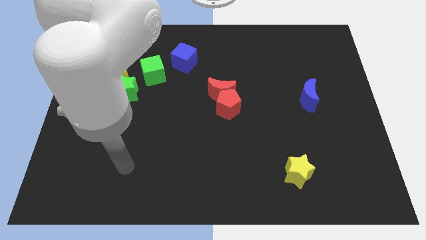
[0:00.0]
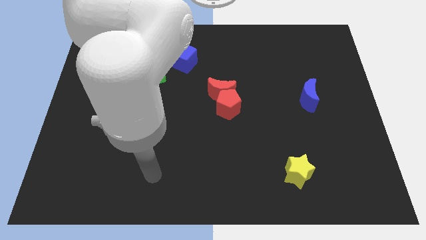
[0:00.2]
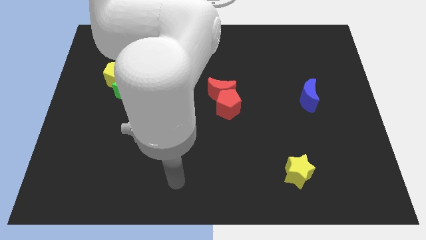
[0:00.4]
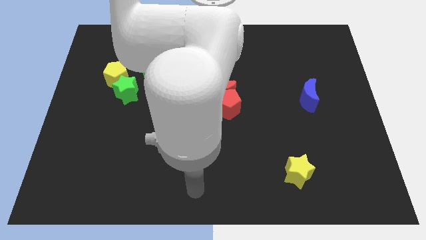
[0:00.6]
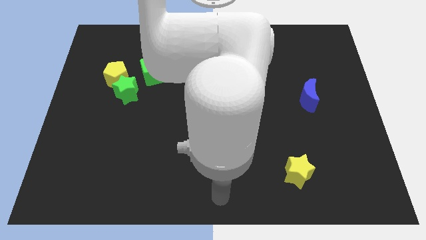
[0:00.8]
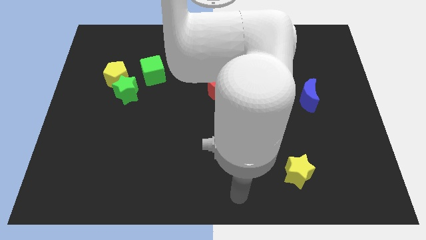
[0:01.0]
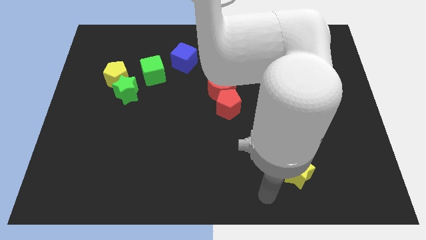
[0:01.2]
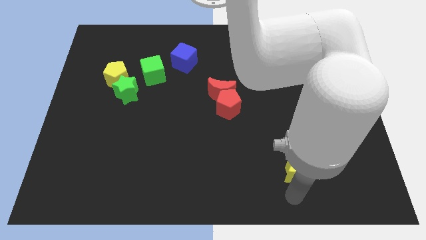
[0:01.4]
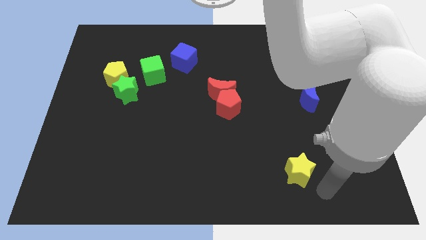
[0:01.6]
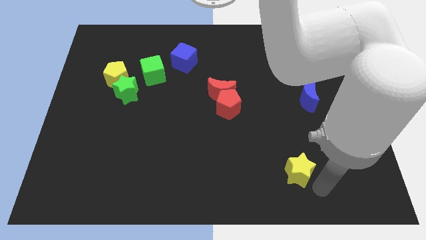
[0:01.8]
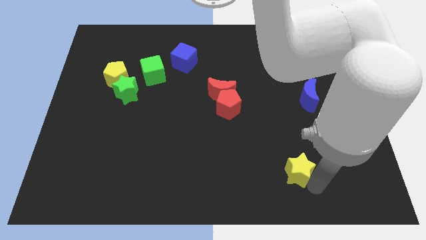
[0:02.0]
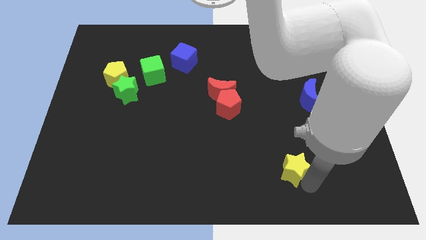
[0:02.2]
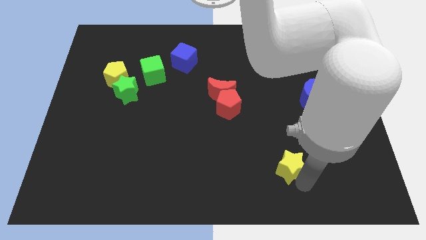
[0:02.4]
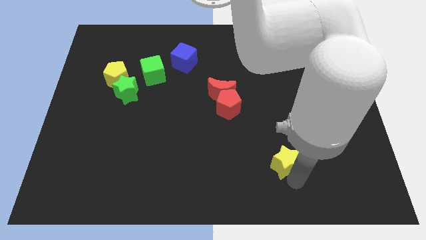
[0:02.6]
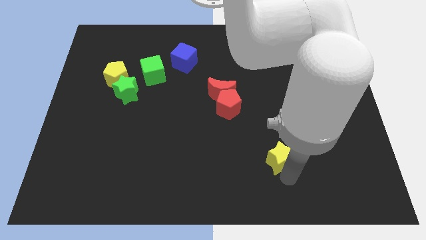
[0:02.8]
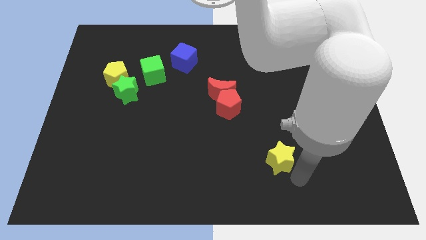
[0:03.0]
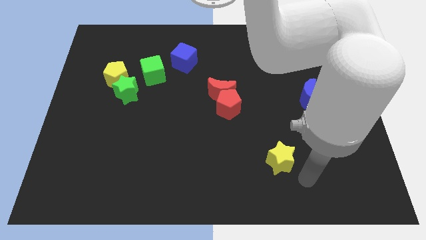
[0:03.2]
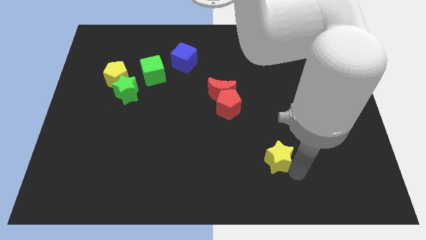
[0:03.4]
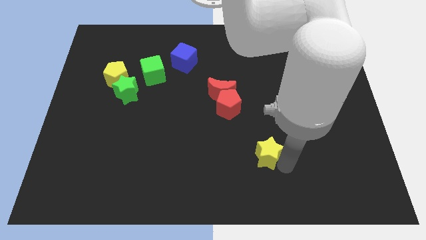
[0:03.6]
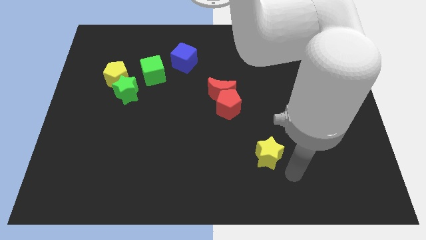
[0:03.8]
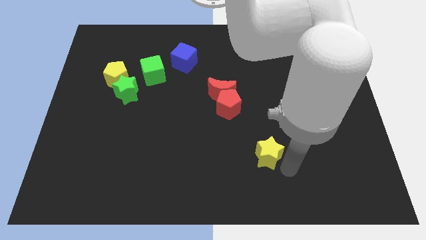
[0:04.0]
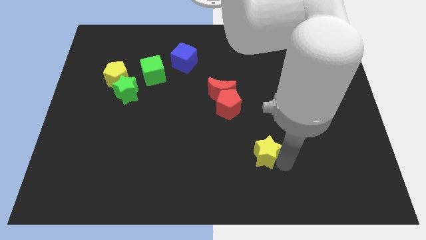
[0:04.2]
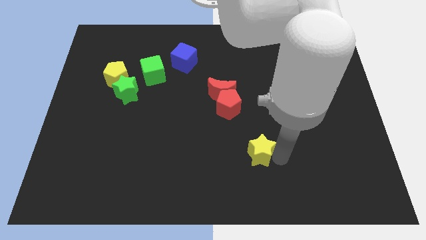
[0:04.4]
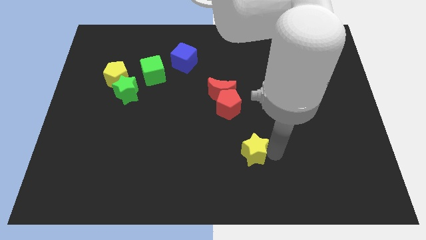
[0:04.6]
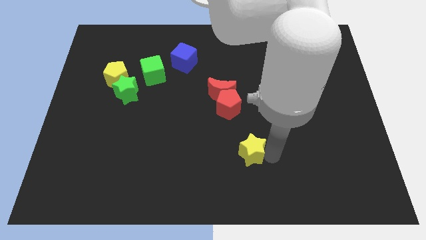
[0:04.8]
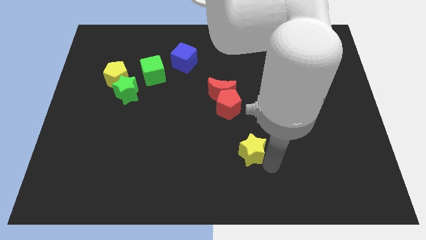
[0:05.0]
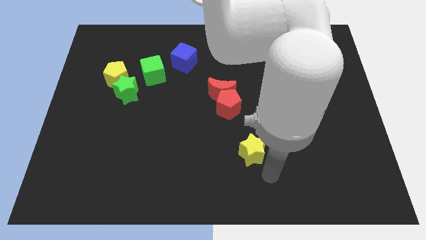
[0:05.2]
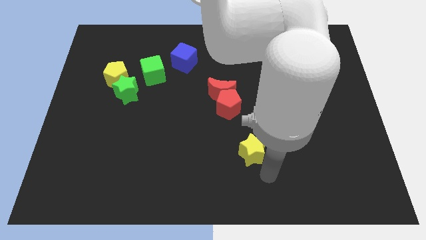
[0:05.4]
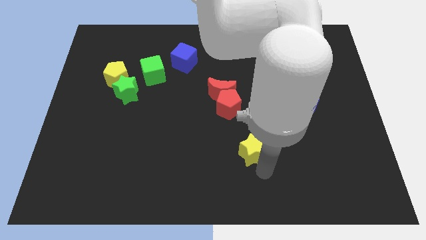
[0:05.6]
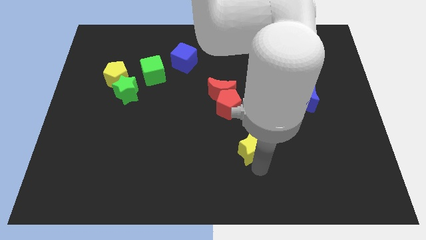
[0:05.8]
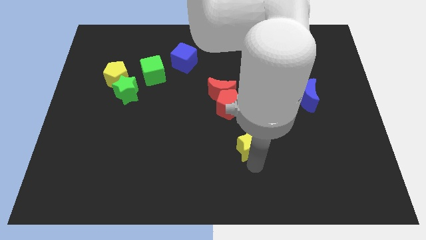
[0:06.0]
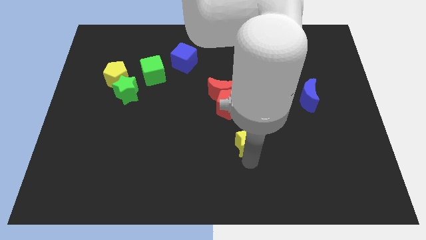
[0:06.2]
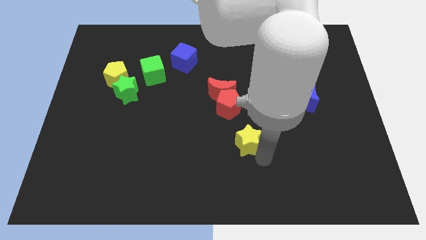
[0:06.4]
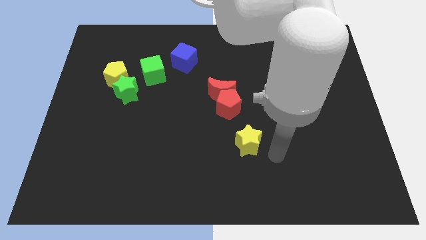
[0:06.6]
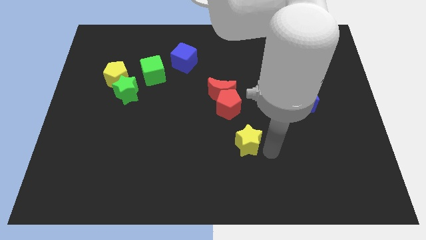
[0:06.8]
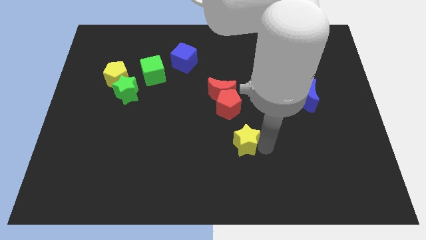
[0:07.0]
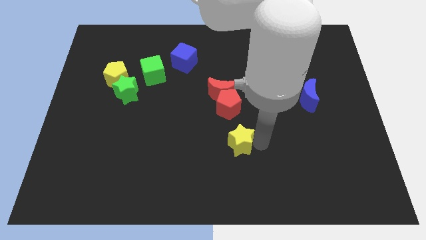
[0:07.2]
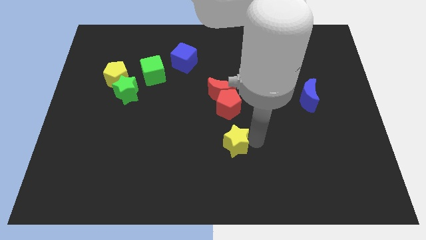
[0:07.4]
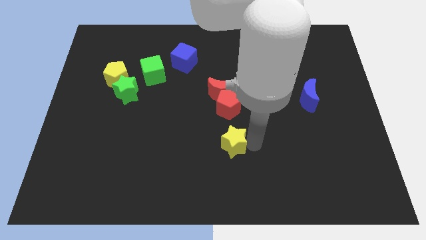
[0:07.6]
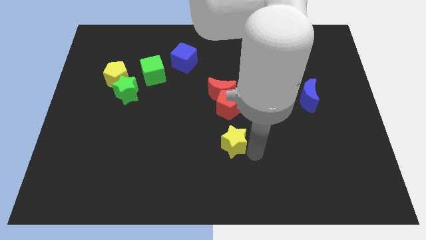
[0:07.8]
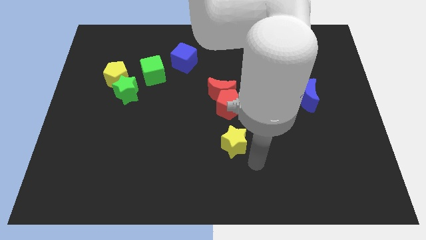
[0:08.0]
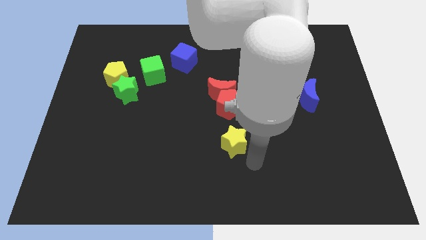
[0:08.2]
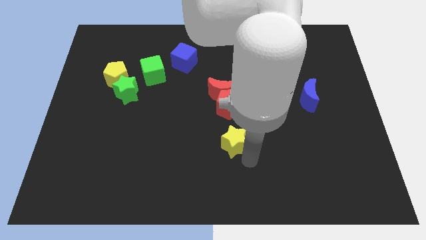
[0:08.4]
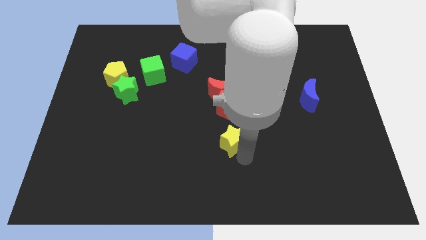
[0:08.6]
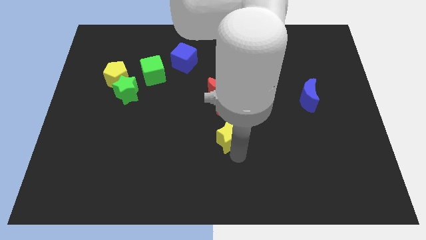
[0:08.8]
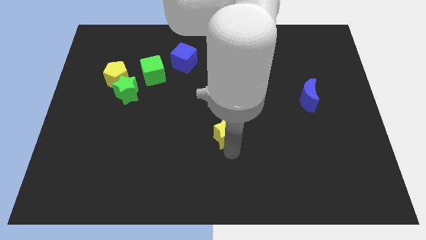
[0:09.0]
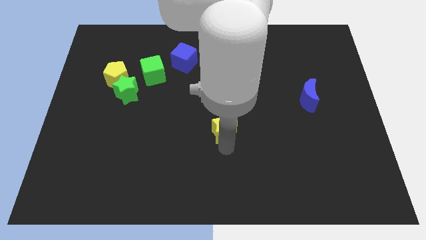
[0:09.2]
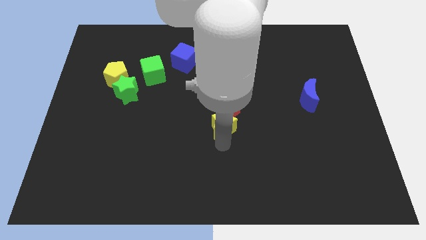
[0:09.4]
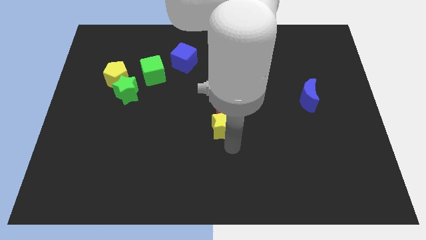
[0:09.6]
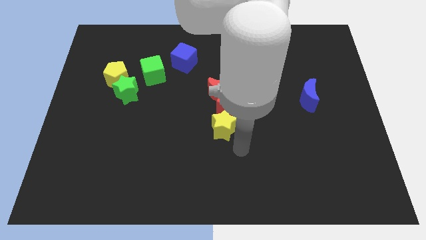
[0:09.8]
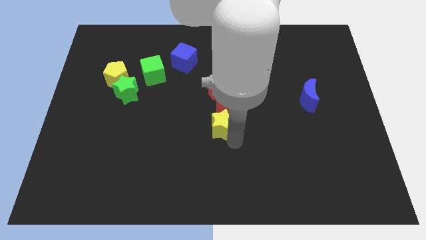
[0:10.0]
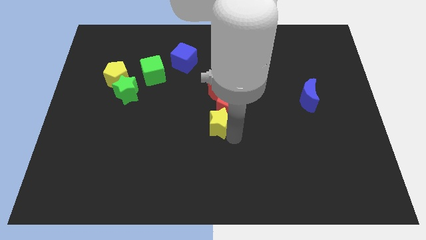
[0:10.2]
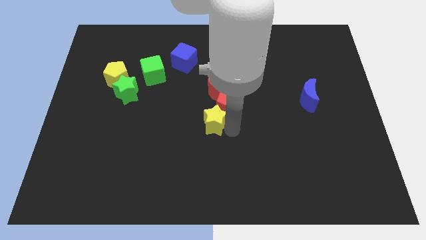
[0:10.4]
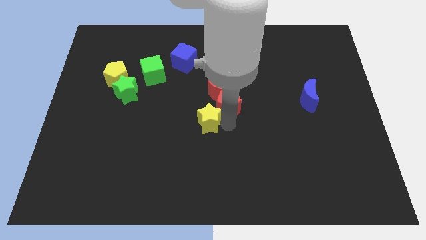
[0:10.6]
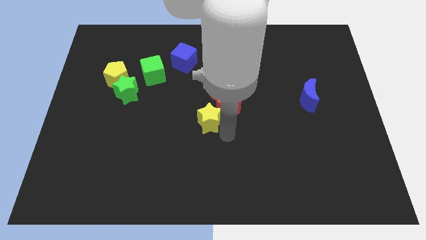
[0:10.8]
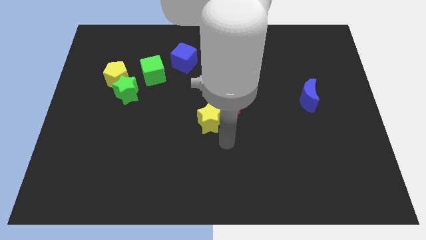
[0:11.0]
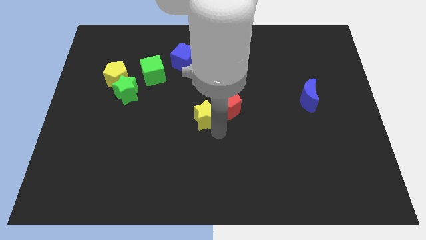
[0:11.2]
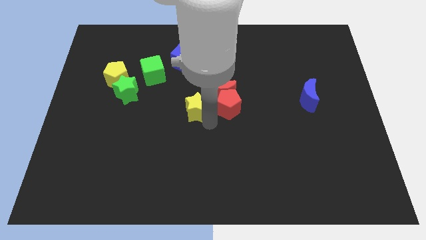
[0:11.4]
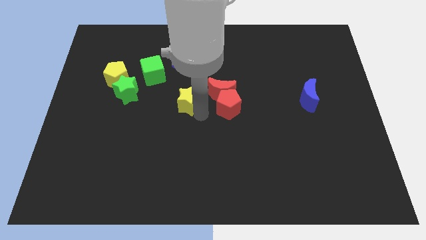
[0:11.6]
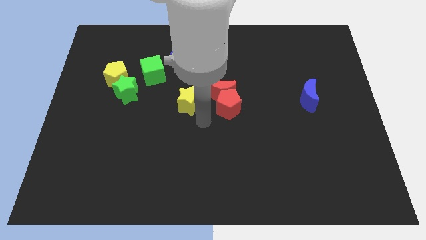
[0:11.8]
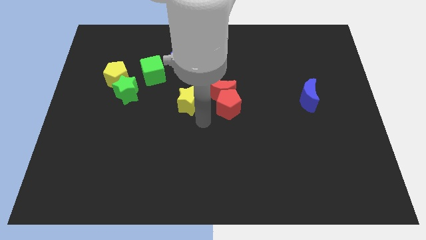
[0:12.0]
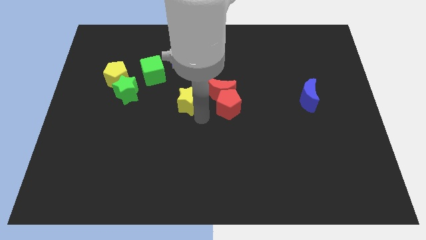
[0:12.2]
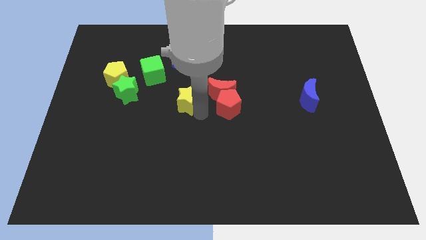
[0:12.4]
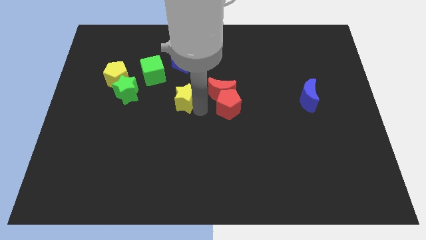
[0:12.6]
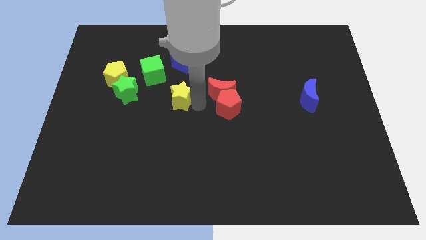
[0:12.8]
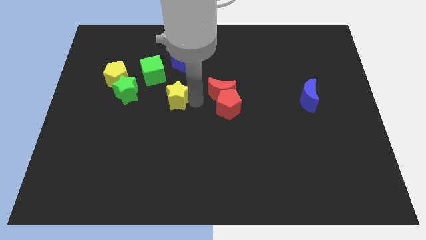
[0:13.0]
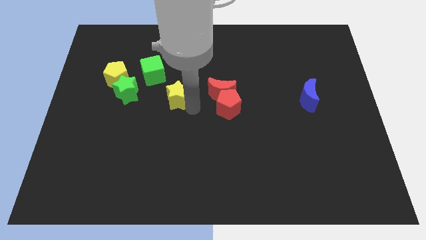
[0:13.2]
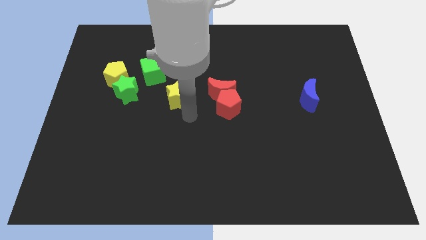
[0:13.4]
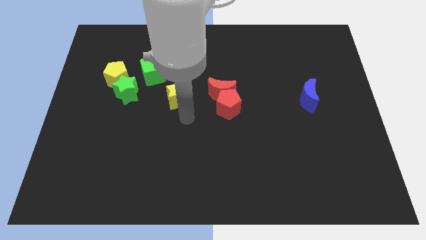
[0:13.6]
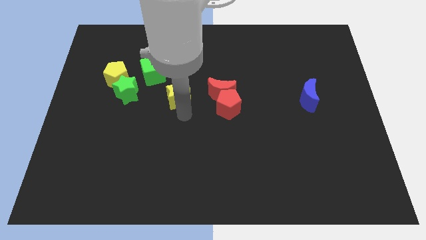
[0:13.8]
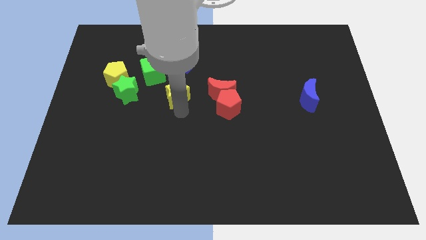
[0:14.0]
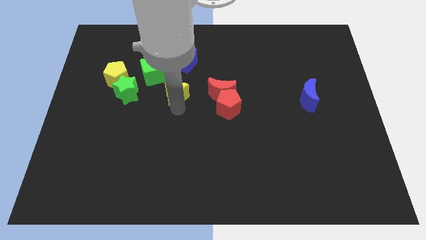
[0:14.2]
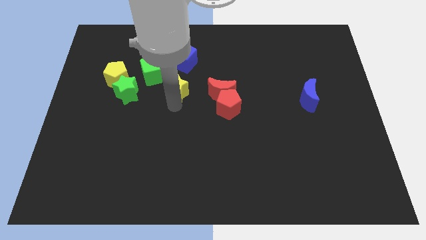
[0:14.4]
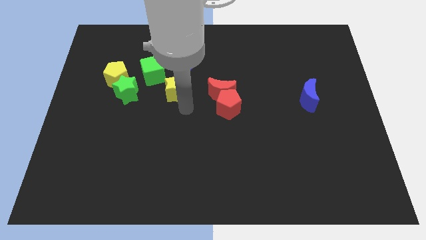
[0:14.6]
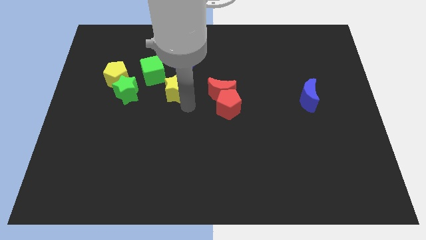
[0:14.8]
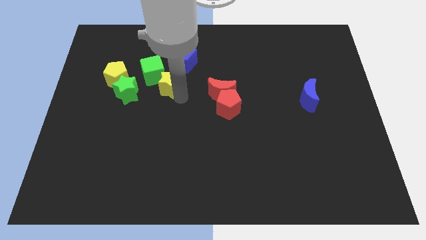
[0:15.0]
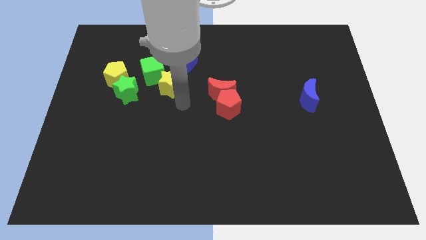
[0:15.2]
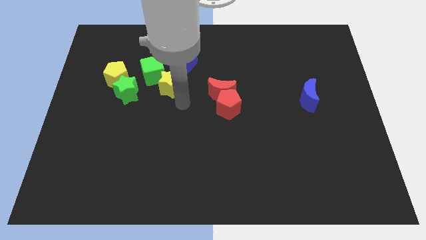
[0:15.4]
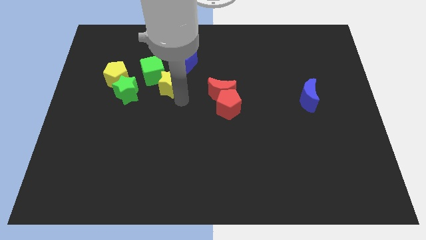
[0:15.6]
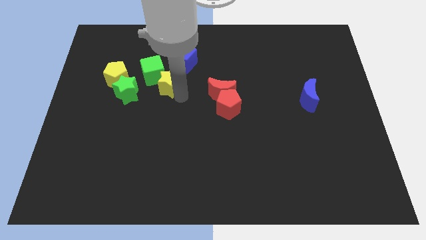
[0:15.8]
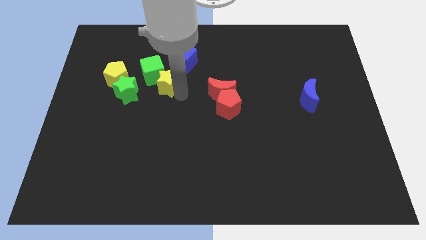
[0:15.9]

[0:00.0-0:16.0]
push the yellow star to the green cube
